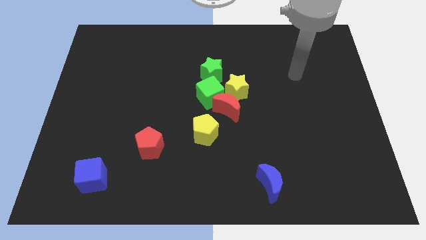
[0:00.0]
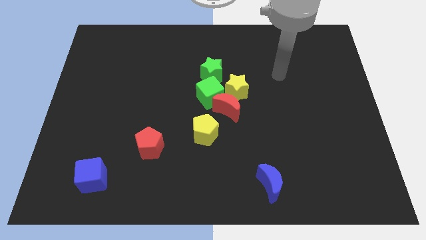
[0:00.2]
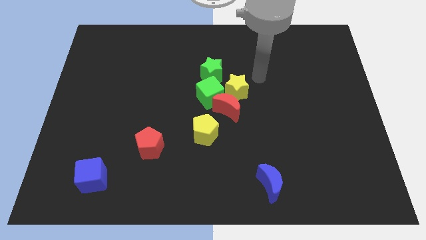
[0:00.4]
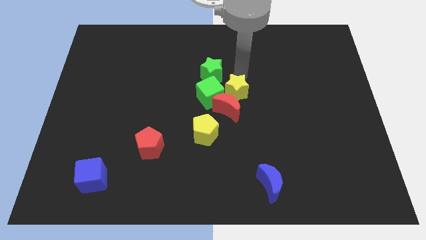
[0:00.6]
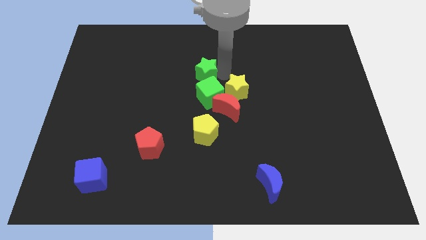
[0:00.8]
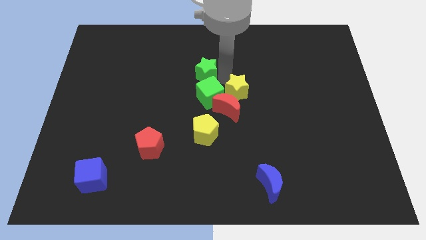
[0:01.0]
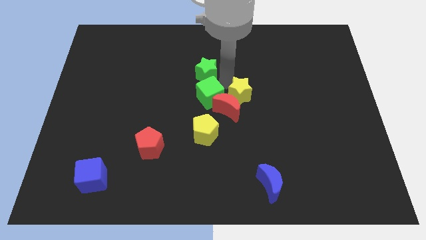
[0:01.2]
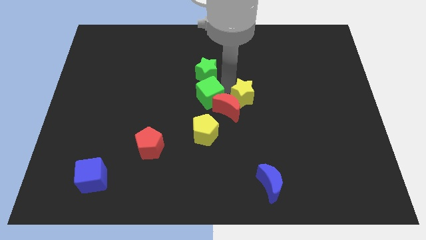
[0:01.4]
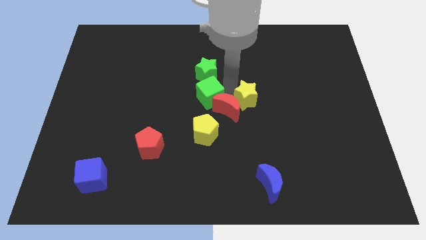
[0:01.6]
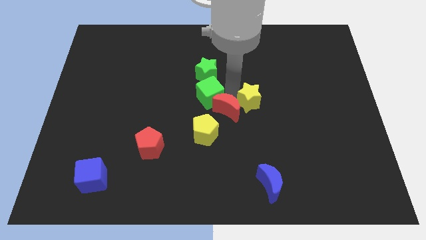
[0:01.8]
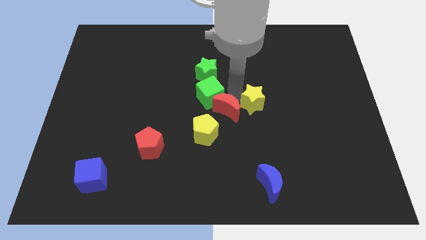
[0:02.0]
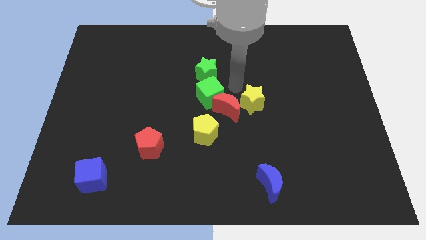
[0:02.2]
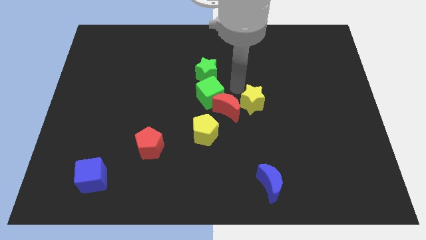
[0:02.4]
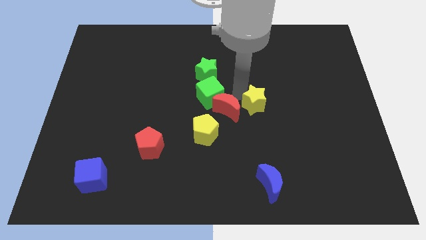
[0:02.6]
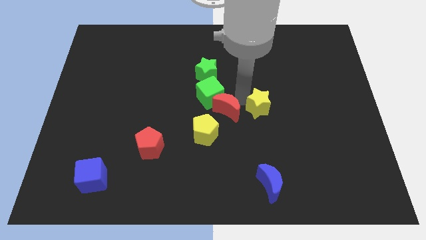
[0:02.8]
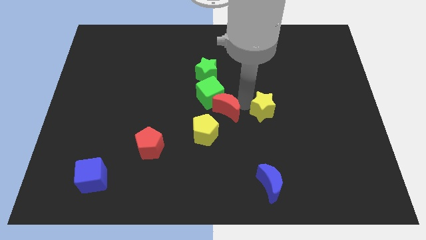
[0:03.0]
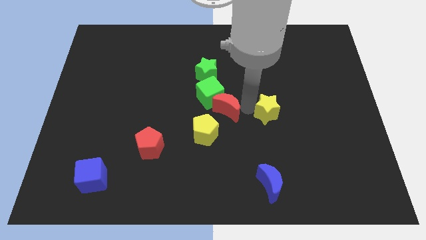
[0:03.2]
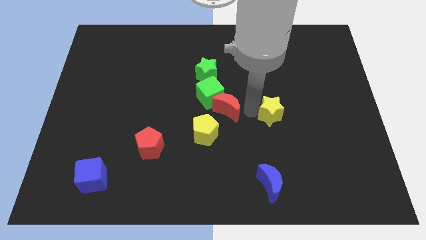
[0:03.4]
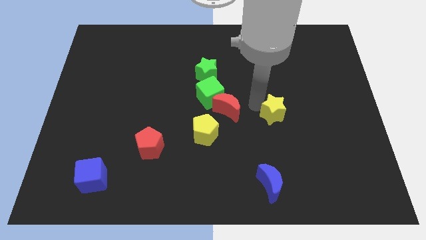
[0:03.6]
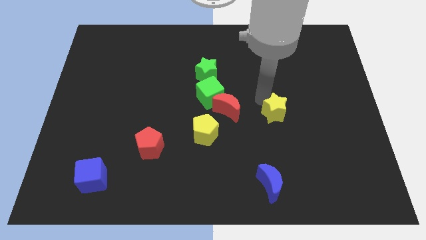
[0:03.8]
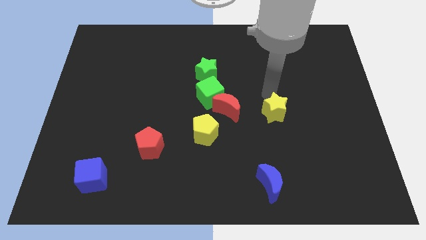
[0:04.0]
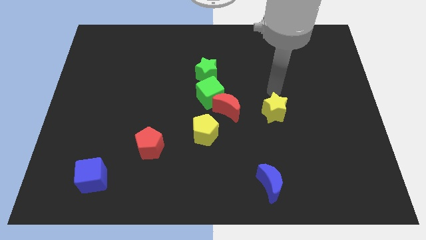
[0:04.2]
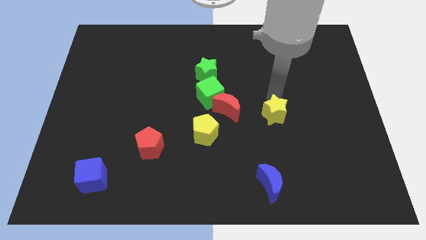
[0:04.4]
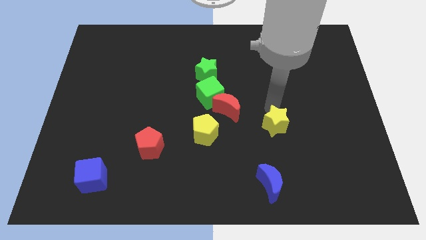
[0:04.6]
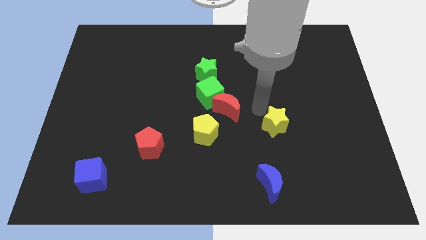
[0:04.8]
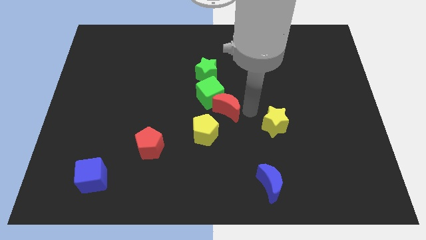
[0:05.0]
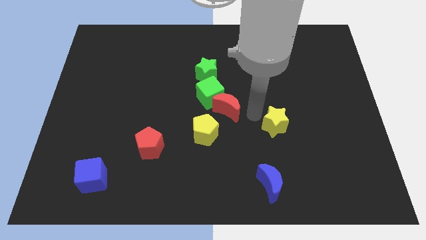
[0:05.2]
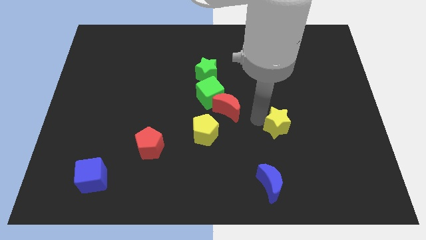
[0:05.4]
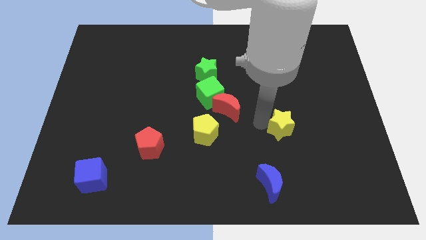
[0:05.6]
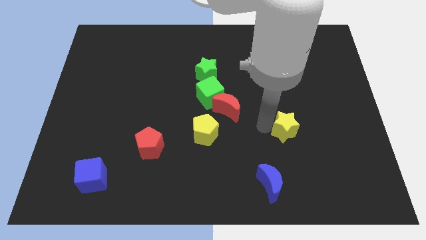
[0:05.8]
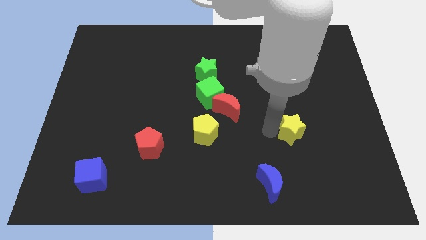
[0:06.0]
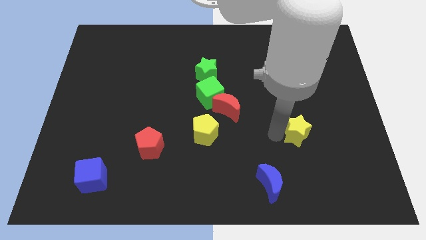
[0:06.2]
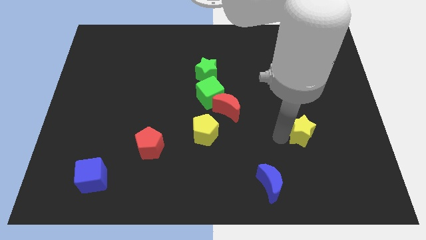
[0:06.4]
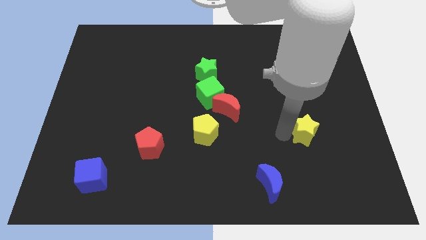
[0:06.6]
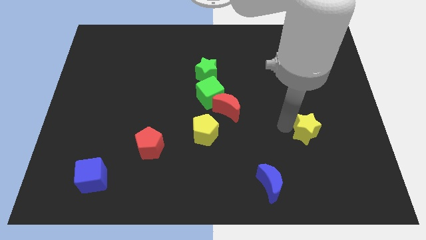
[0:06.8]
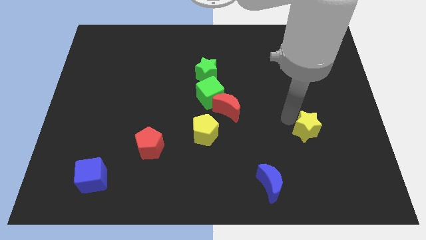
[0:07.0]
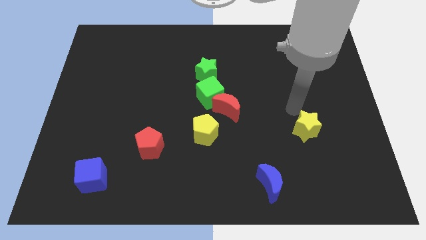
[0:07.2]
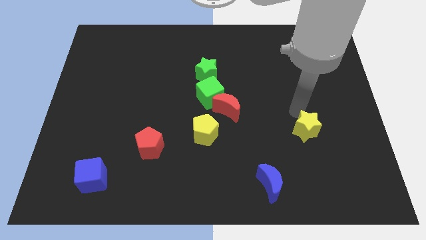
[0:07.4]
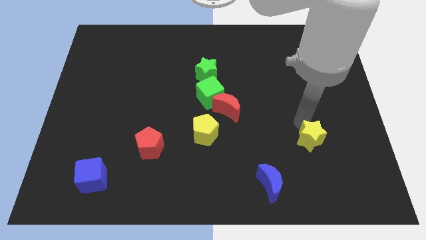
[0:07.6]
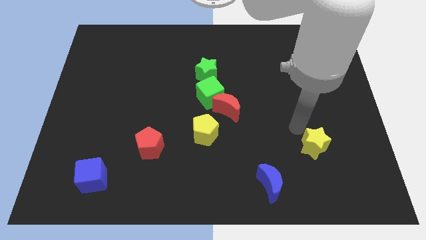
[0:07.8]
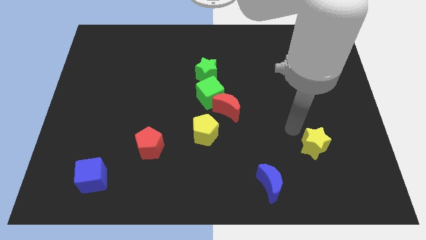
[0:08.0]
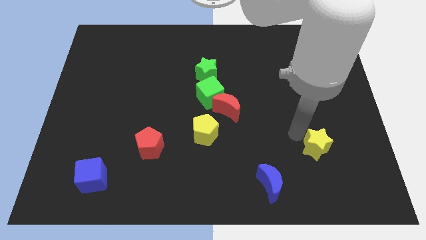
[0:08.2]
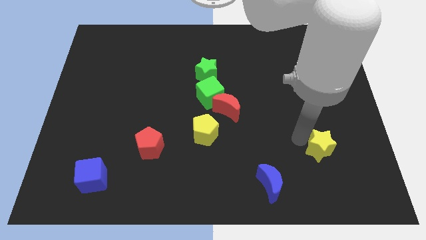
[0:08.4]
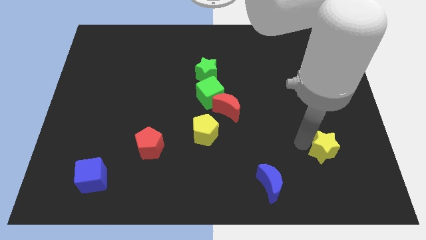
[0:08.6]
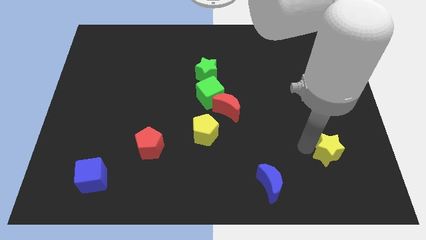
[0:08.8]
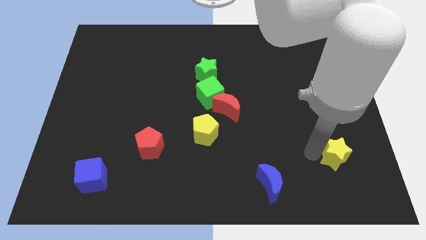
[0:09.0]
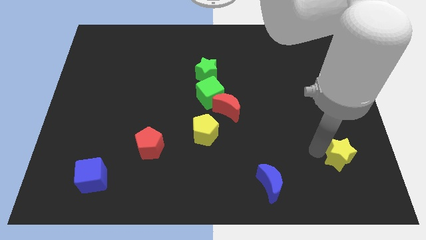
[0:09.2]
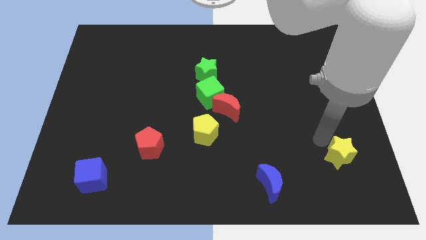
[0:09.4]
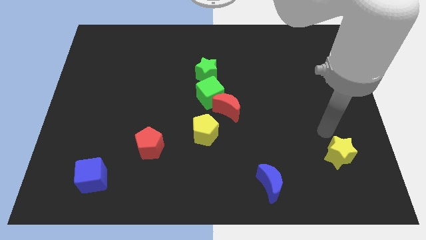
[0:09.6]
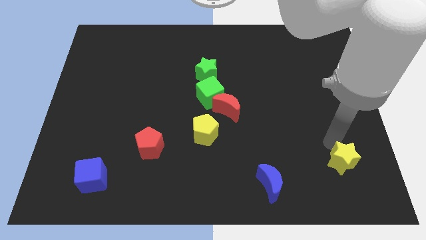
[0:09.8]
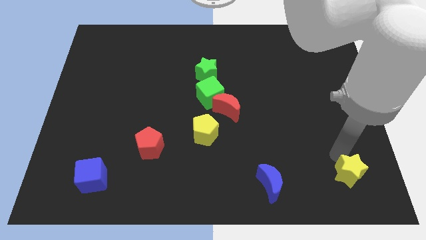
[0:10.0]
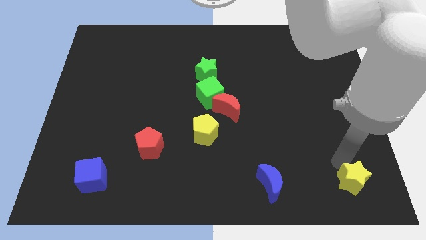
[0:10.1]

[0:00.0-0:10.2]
push the yellow star to the lower right corner

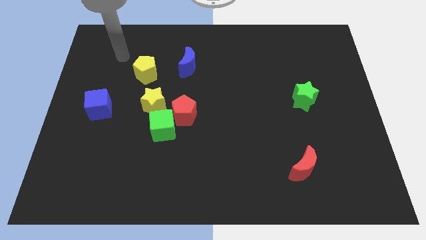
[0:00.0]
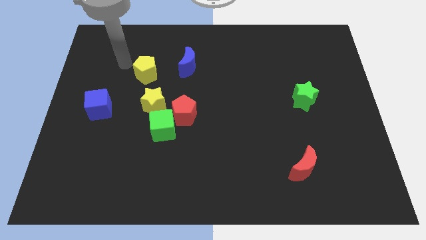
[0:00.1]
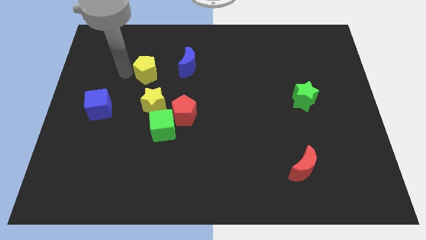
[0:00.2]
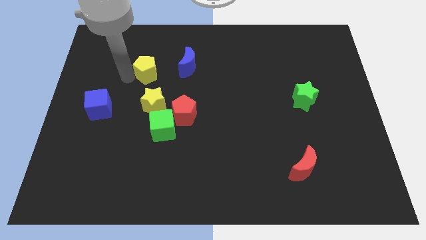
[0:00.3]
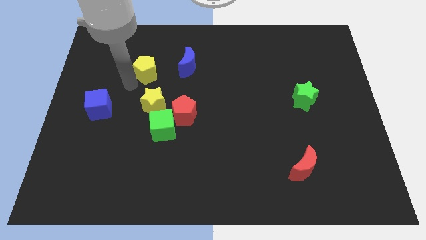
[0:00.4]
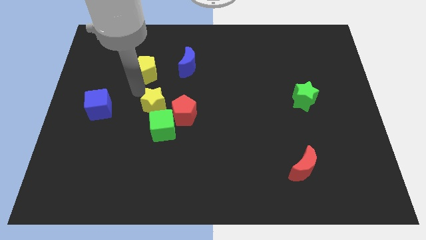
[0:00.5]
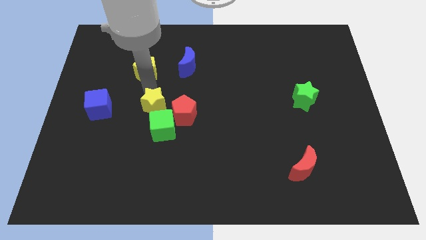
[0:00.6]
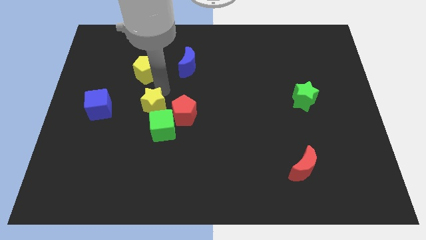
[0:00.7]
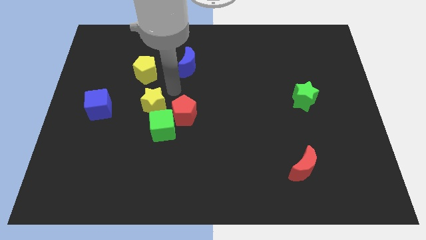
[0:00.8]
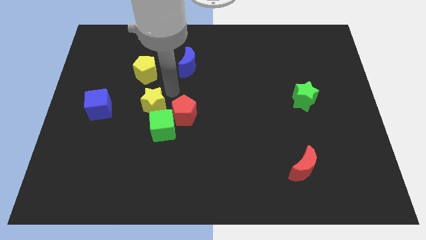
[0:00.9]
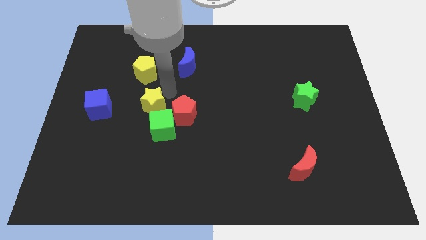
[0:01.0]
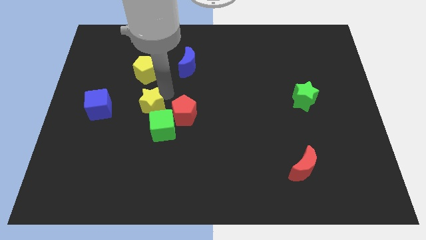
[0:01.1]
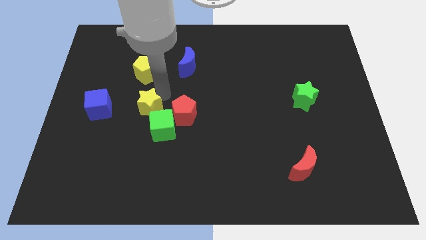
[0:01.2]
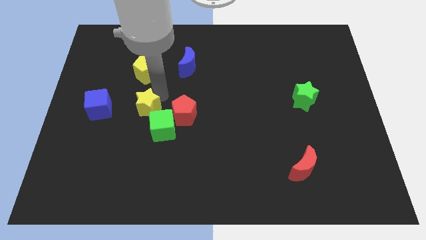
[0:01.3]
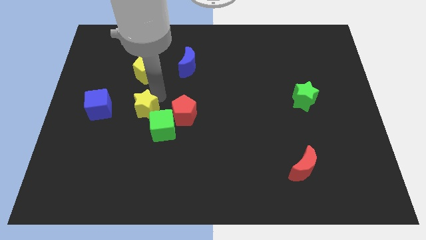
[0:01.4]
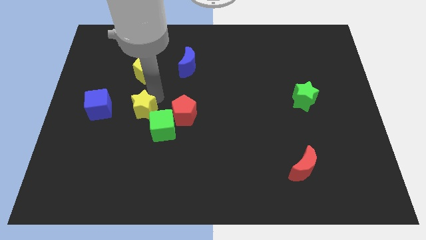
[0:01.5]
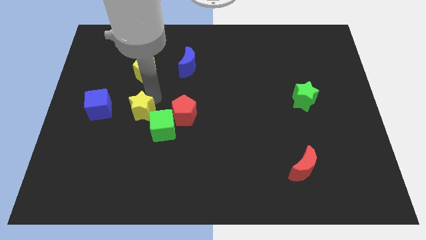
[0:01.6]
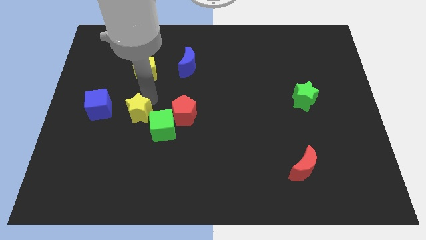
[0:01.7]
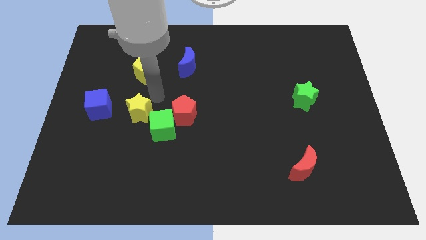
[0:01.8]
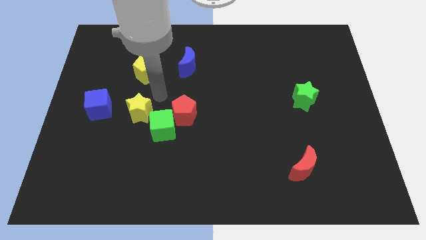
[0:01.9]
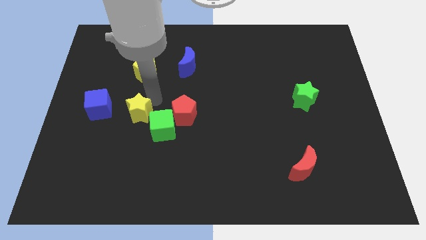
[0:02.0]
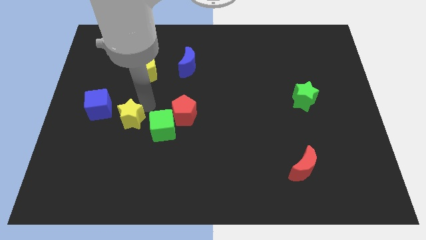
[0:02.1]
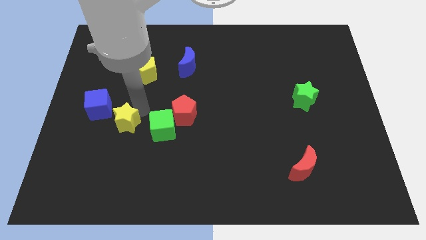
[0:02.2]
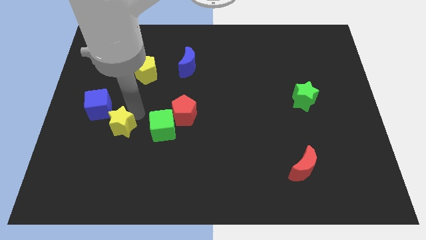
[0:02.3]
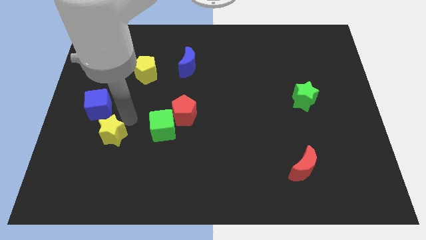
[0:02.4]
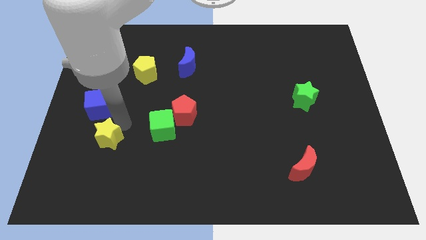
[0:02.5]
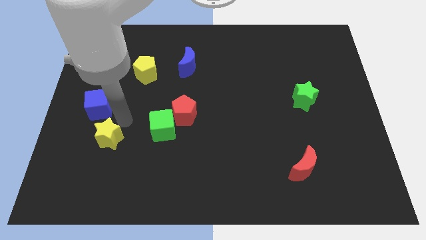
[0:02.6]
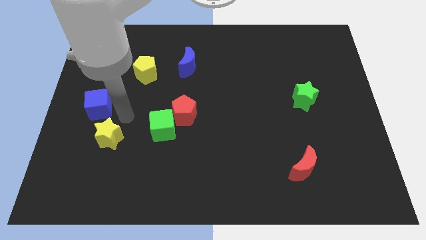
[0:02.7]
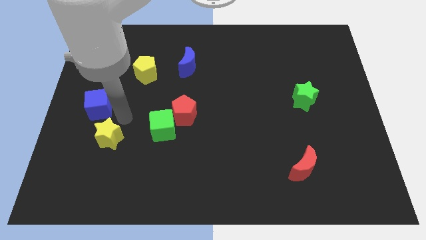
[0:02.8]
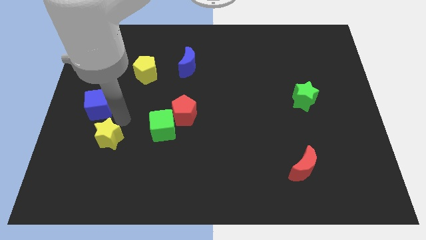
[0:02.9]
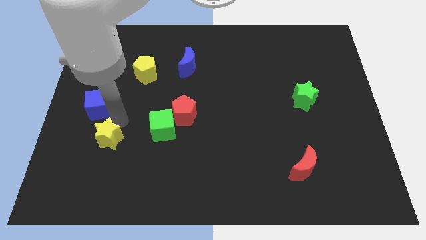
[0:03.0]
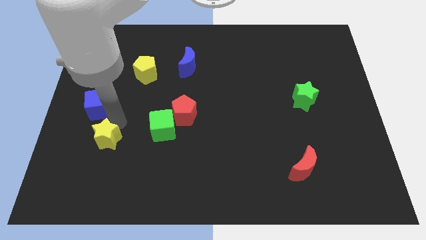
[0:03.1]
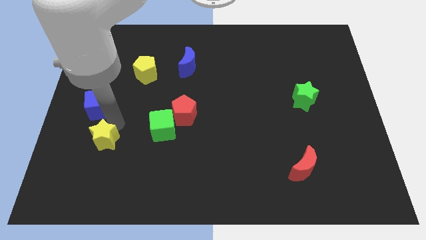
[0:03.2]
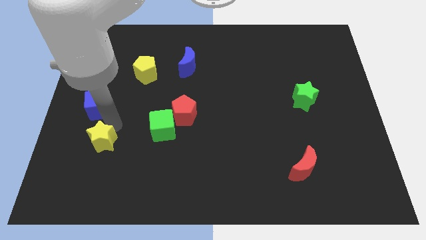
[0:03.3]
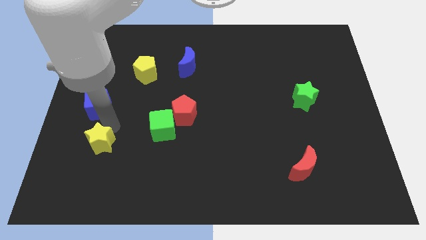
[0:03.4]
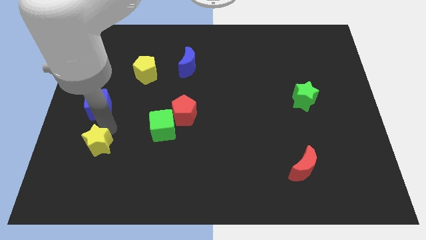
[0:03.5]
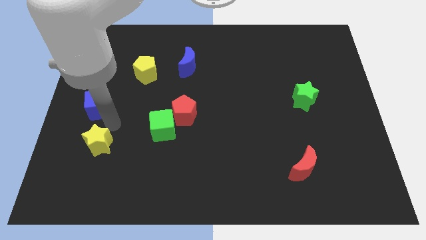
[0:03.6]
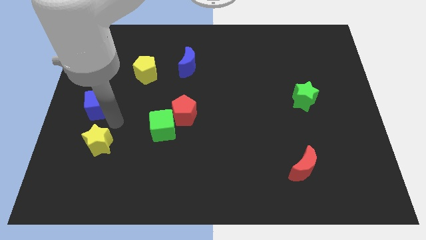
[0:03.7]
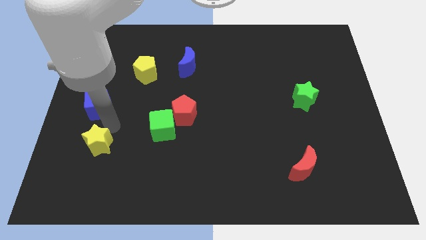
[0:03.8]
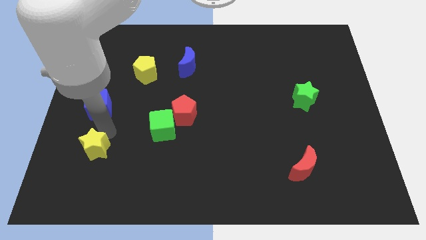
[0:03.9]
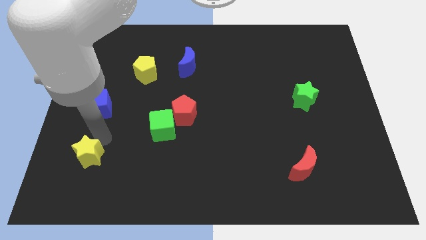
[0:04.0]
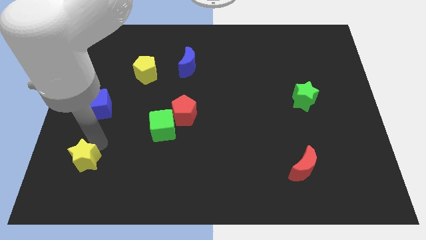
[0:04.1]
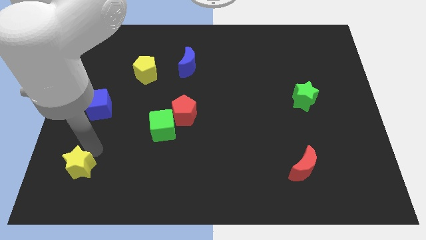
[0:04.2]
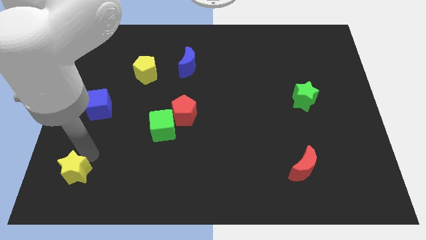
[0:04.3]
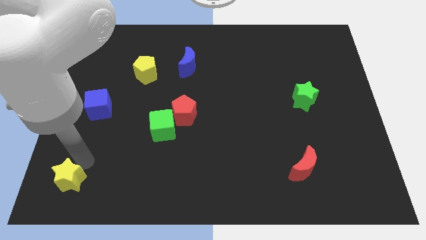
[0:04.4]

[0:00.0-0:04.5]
push the yellow star to the bottom left of the board
